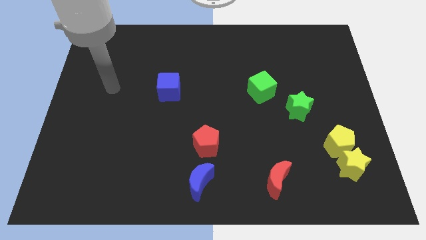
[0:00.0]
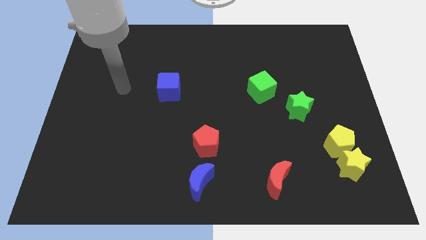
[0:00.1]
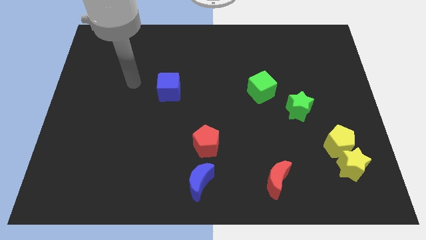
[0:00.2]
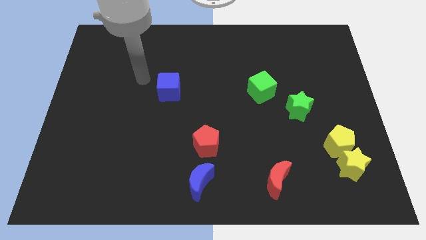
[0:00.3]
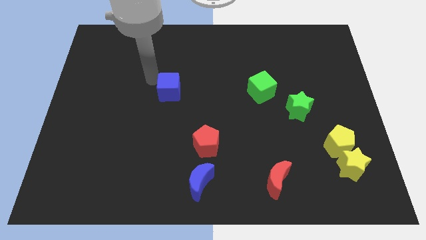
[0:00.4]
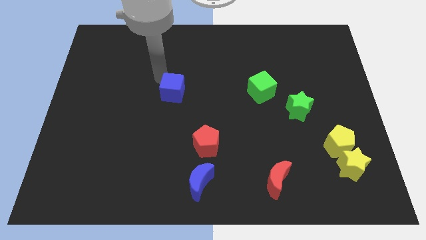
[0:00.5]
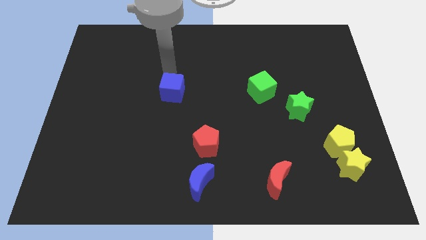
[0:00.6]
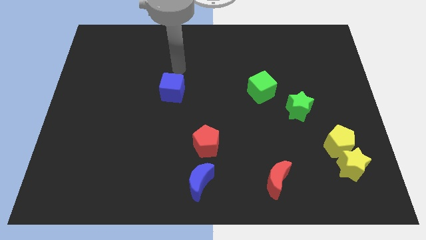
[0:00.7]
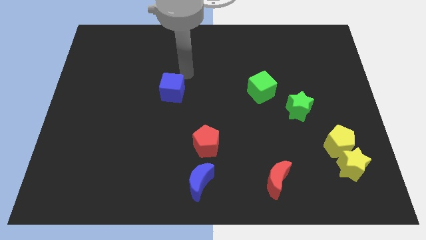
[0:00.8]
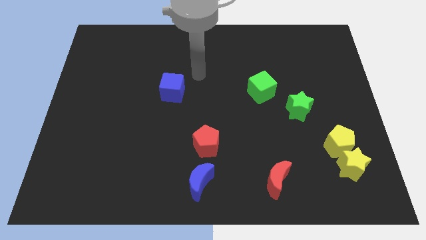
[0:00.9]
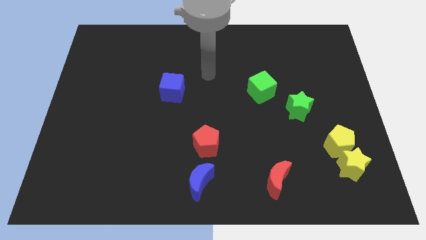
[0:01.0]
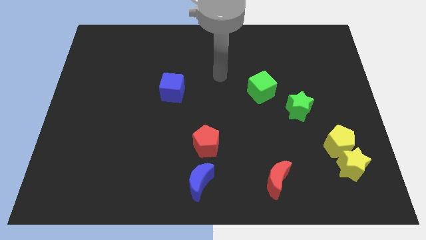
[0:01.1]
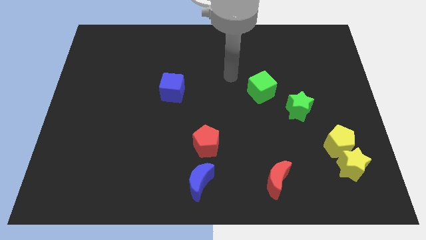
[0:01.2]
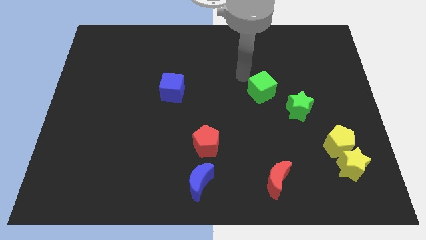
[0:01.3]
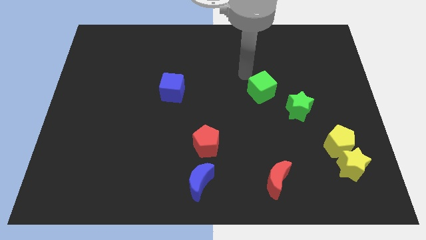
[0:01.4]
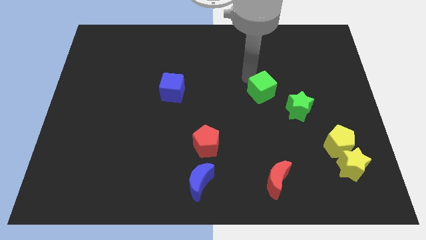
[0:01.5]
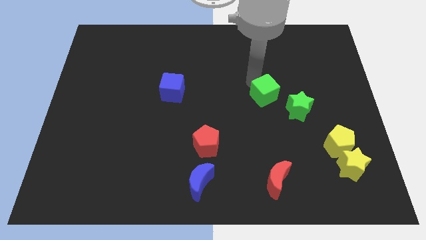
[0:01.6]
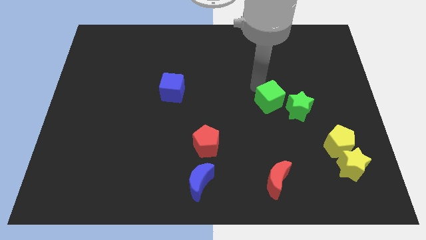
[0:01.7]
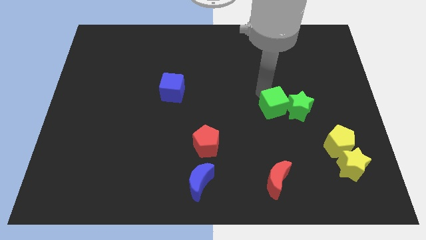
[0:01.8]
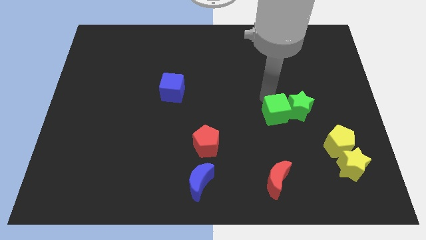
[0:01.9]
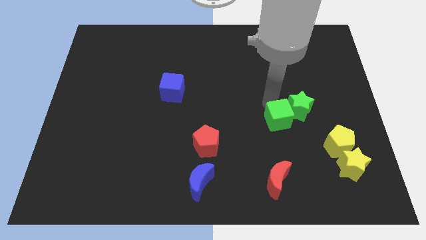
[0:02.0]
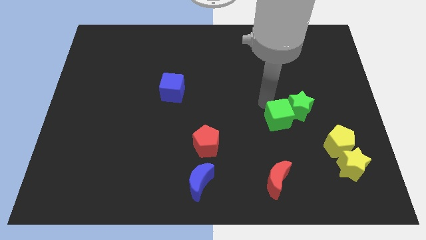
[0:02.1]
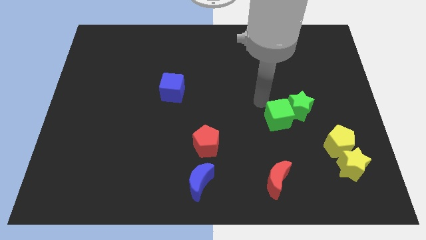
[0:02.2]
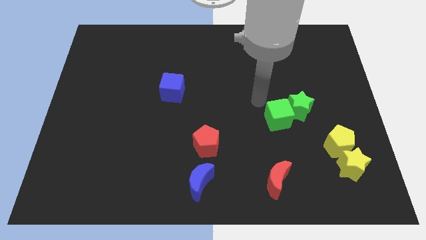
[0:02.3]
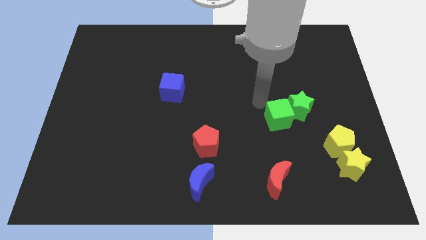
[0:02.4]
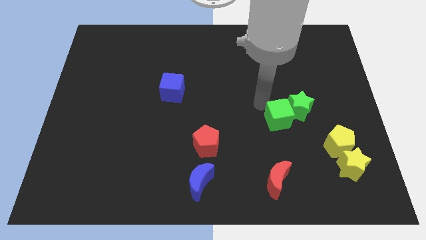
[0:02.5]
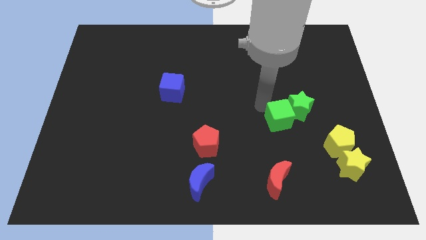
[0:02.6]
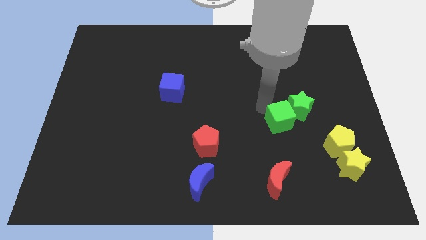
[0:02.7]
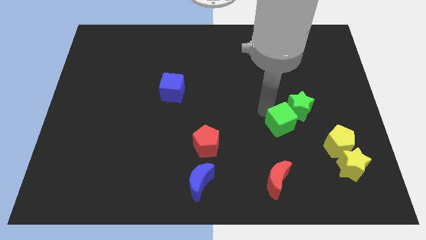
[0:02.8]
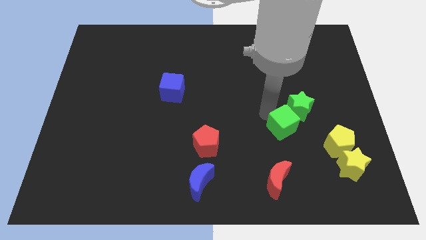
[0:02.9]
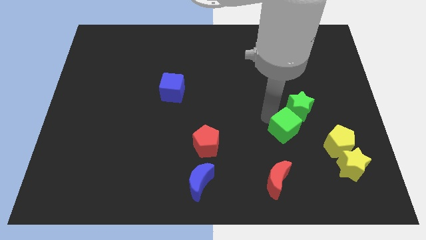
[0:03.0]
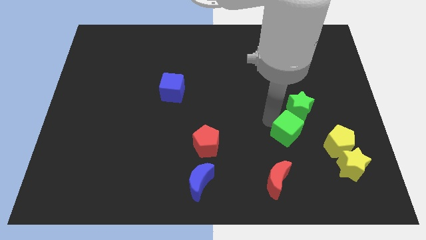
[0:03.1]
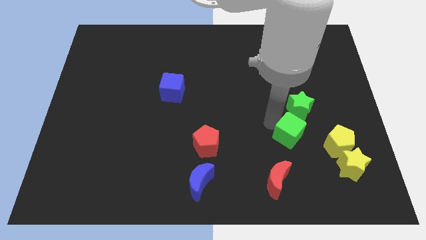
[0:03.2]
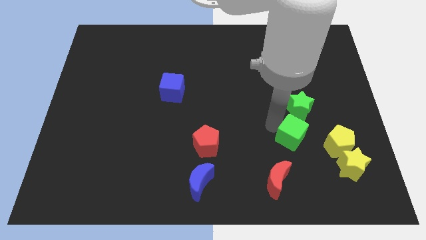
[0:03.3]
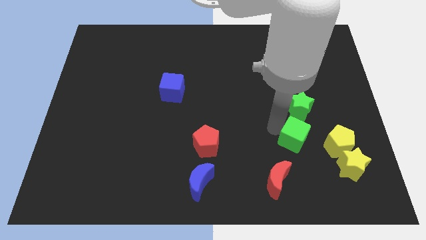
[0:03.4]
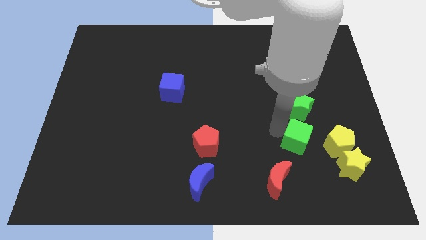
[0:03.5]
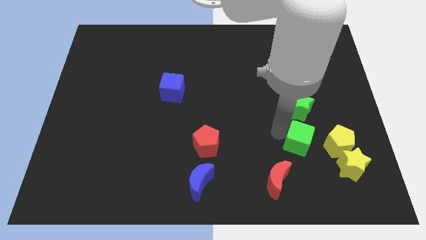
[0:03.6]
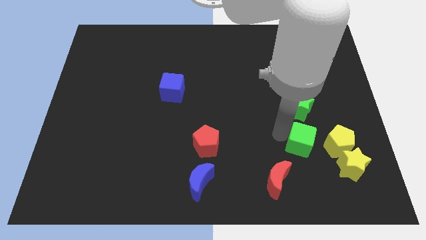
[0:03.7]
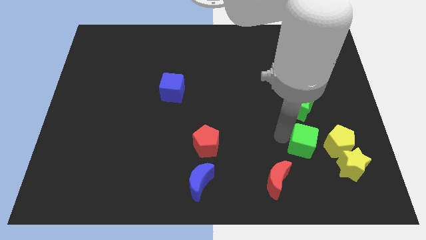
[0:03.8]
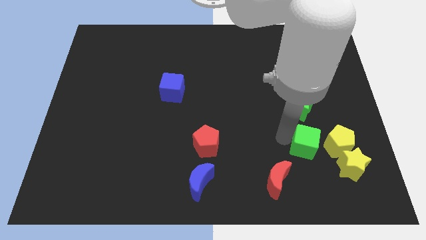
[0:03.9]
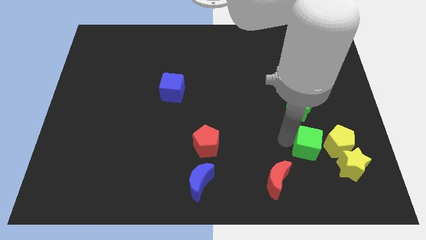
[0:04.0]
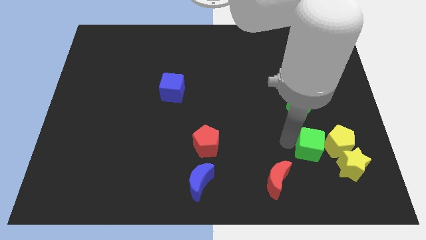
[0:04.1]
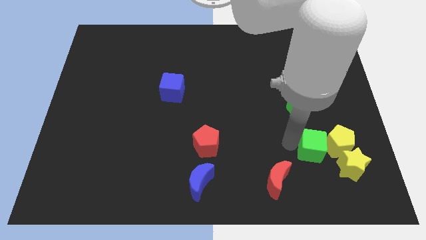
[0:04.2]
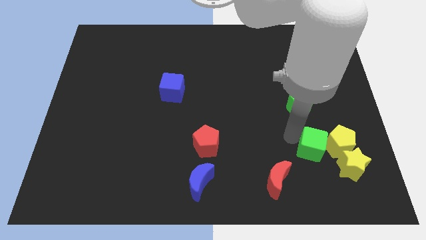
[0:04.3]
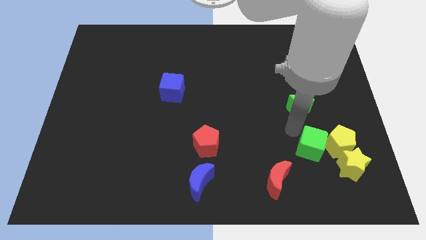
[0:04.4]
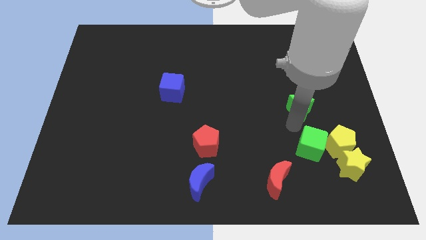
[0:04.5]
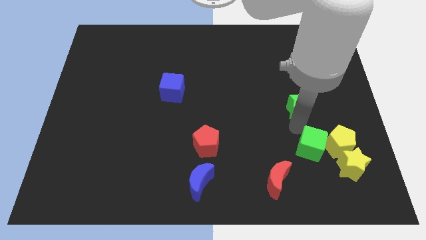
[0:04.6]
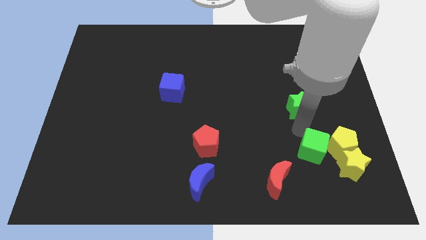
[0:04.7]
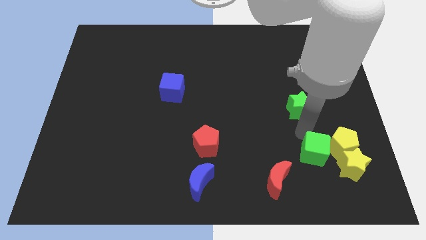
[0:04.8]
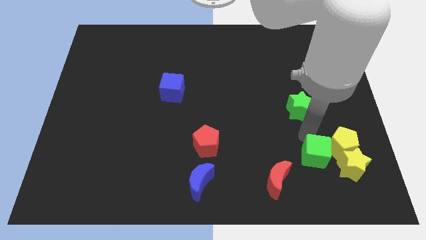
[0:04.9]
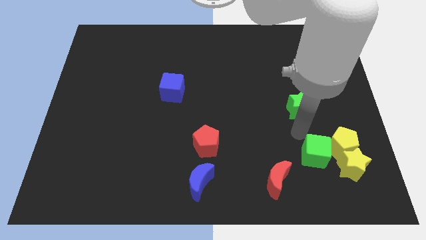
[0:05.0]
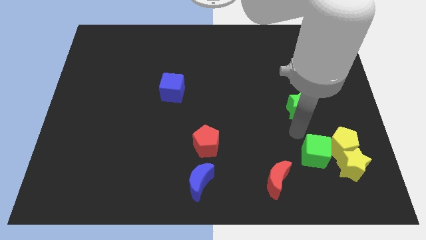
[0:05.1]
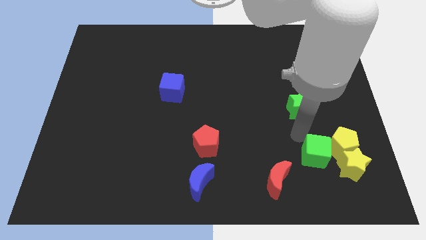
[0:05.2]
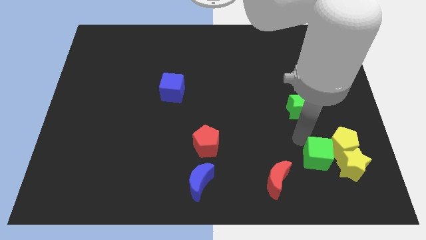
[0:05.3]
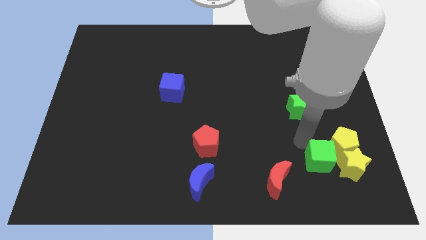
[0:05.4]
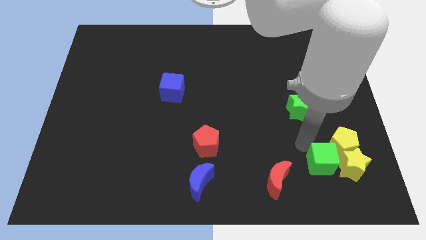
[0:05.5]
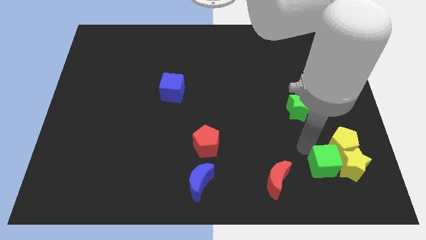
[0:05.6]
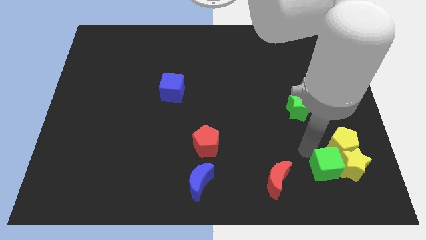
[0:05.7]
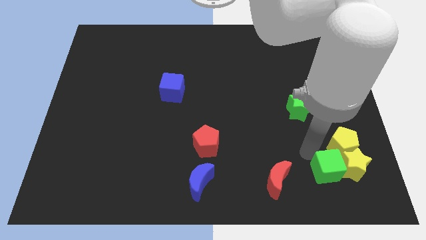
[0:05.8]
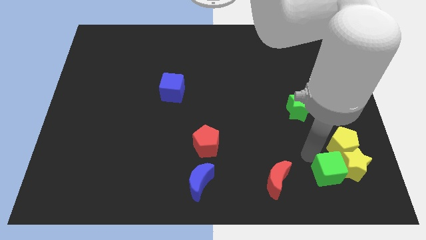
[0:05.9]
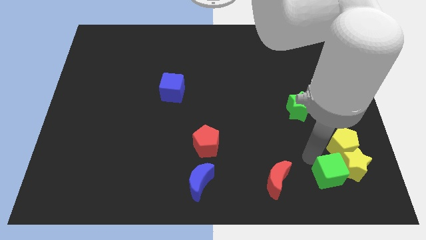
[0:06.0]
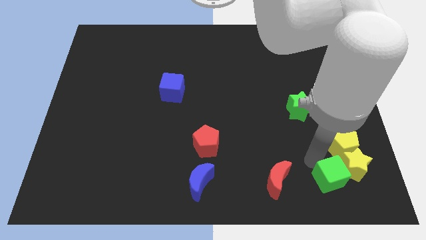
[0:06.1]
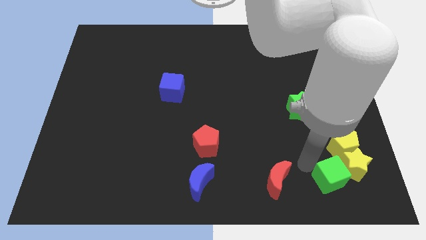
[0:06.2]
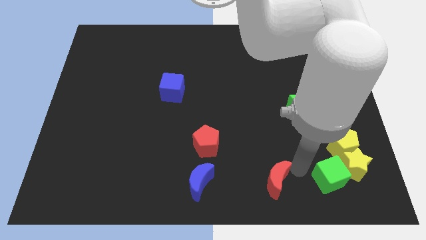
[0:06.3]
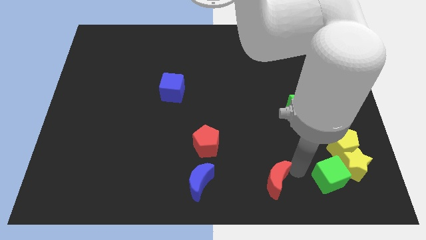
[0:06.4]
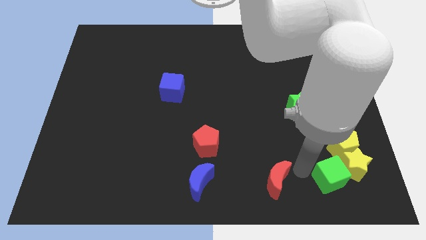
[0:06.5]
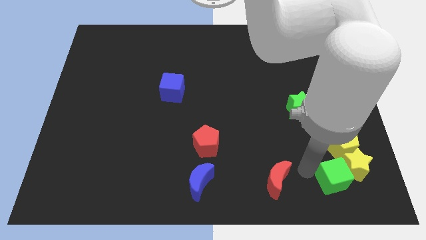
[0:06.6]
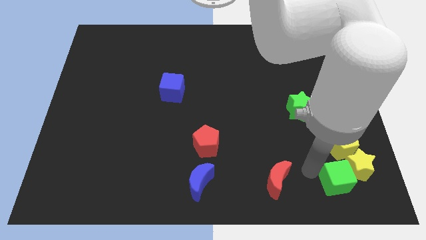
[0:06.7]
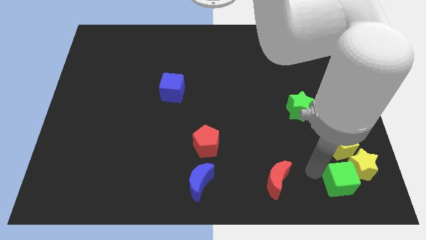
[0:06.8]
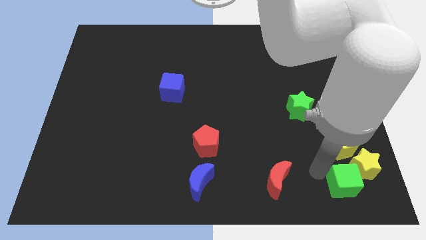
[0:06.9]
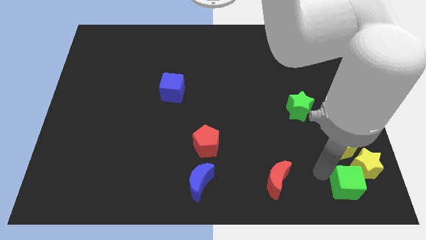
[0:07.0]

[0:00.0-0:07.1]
move the green cube to the lower right corner

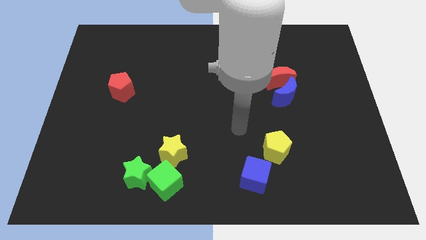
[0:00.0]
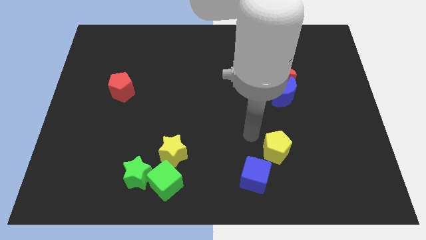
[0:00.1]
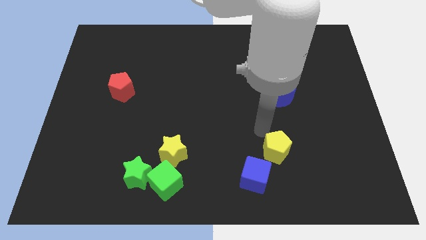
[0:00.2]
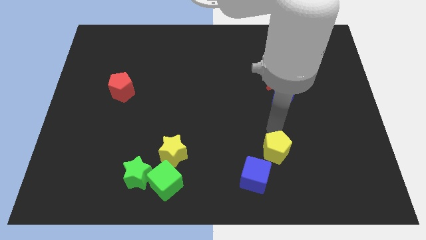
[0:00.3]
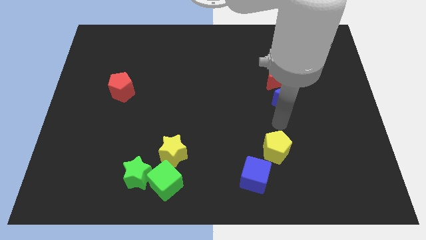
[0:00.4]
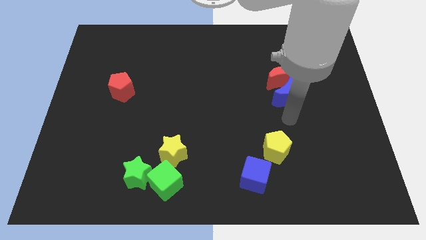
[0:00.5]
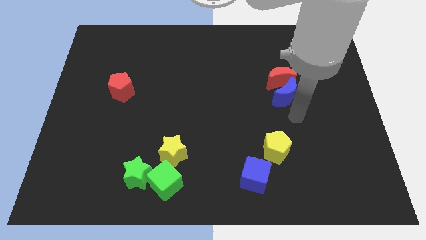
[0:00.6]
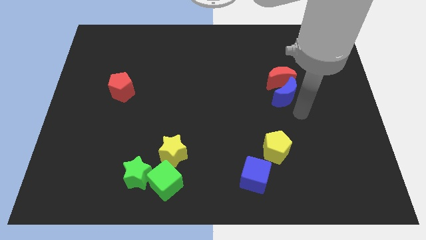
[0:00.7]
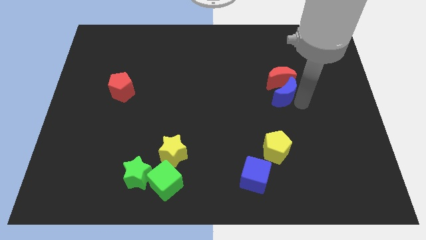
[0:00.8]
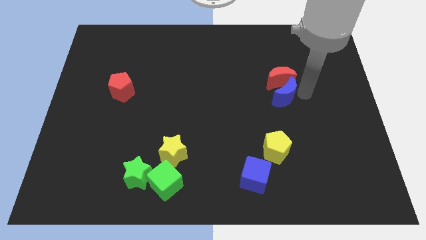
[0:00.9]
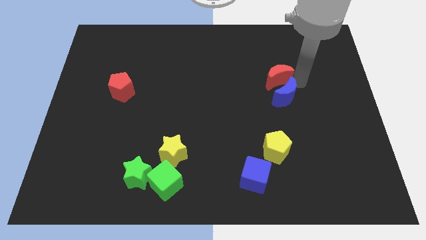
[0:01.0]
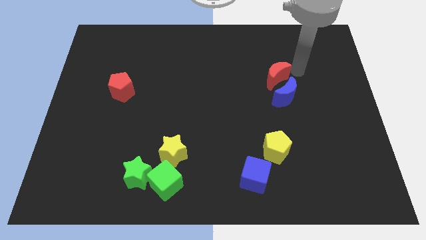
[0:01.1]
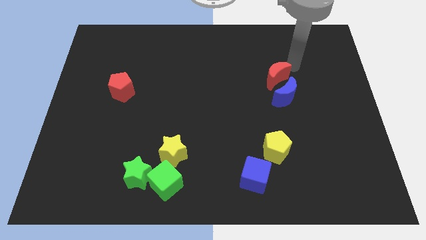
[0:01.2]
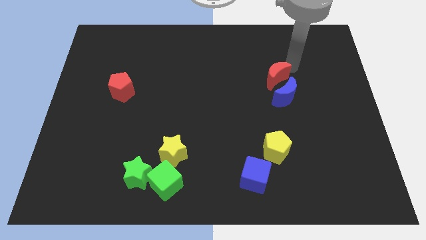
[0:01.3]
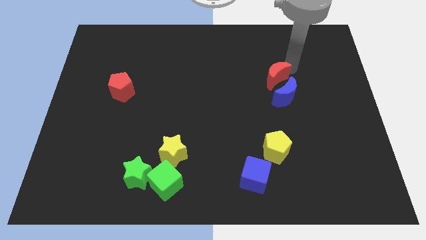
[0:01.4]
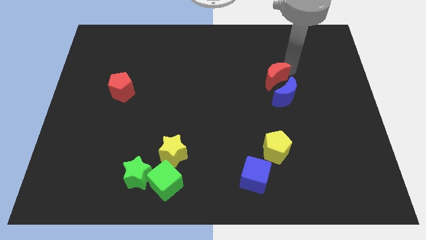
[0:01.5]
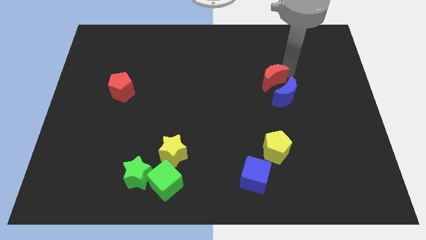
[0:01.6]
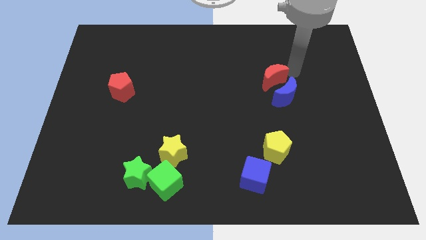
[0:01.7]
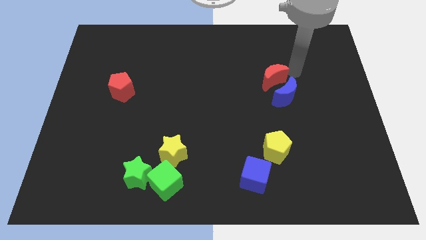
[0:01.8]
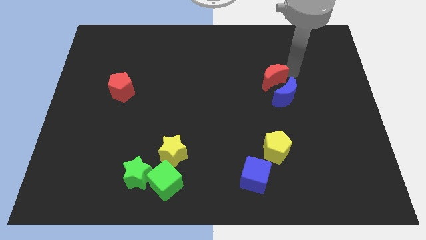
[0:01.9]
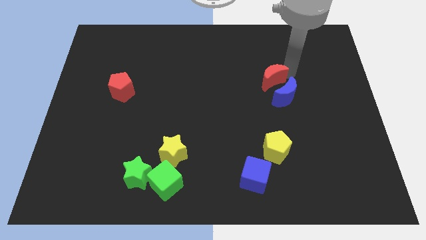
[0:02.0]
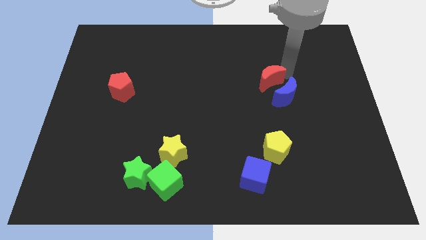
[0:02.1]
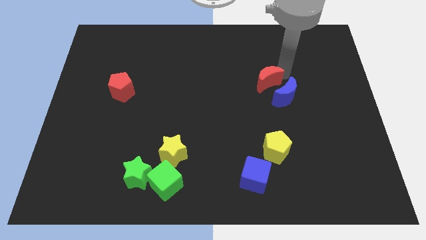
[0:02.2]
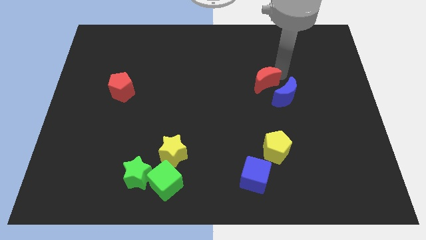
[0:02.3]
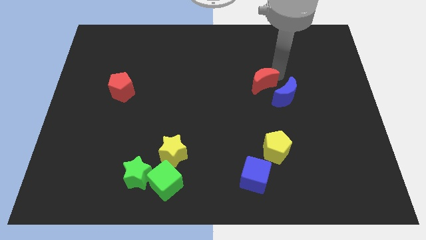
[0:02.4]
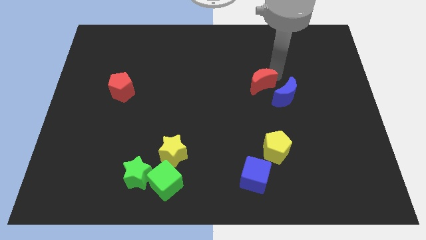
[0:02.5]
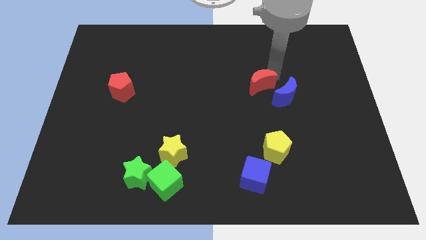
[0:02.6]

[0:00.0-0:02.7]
slide the red moon to the middle
